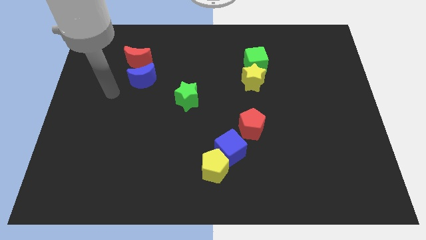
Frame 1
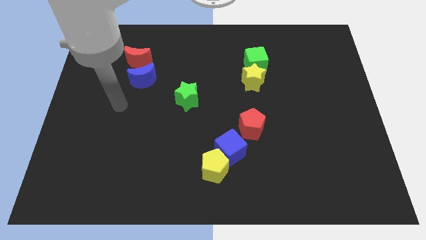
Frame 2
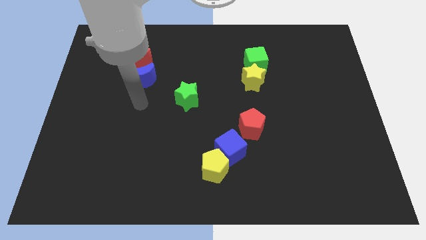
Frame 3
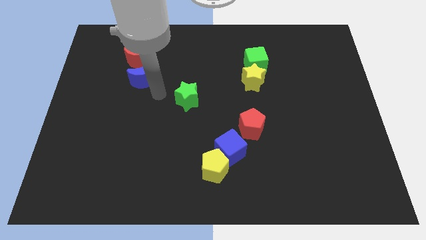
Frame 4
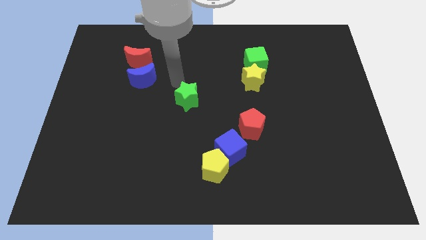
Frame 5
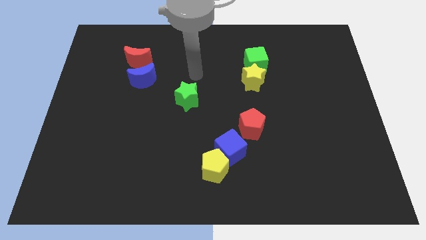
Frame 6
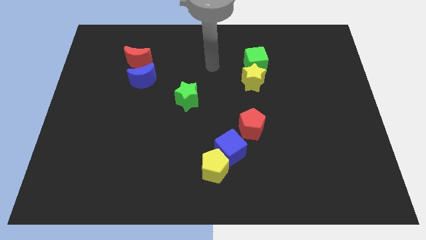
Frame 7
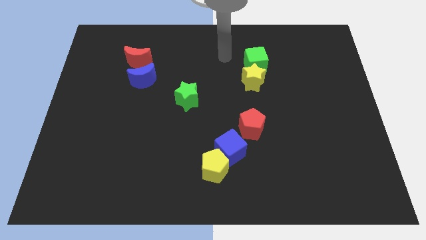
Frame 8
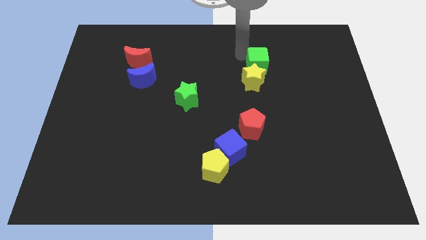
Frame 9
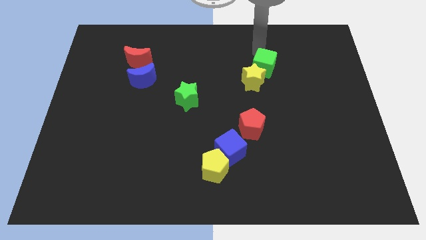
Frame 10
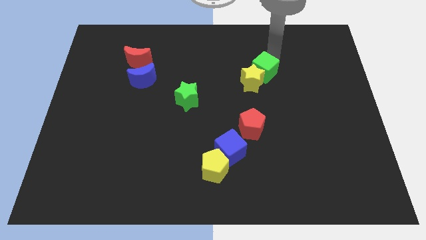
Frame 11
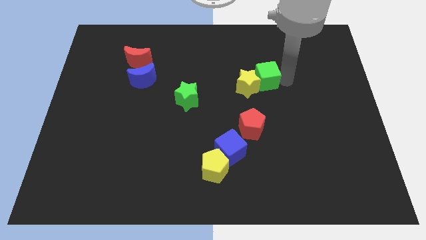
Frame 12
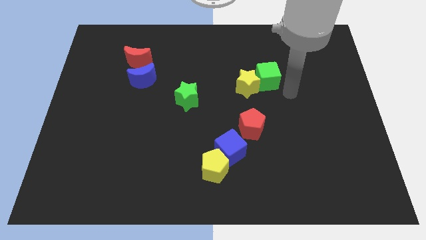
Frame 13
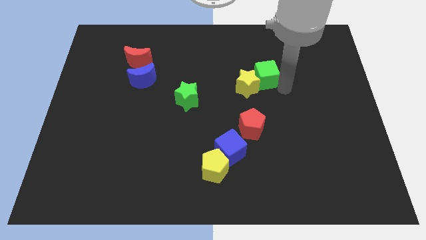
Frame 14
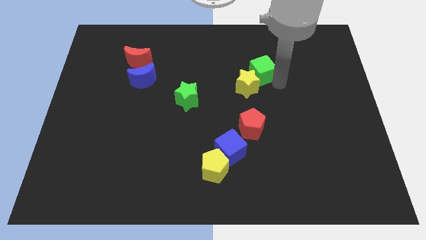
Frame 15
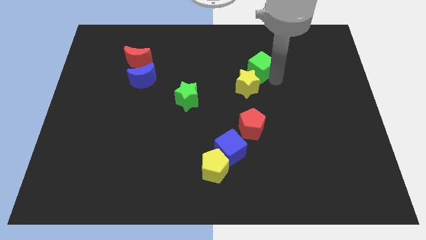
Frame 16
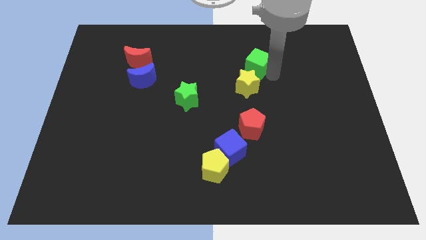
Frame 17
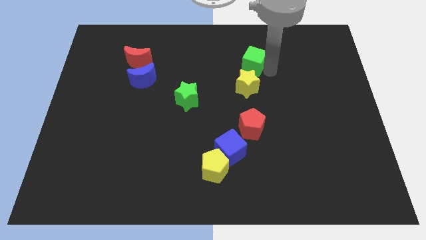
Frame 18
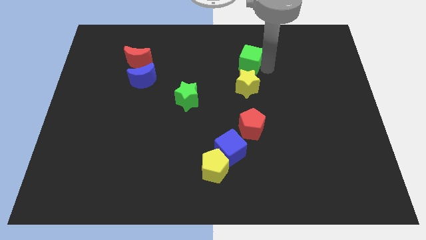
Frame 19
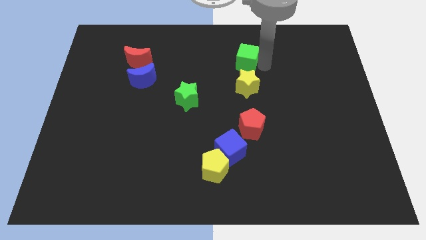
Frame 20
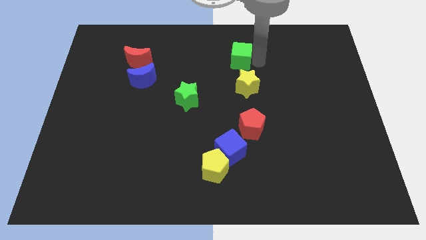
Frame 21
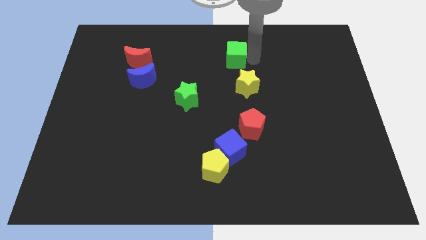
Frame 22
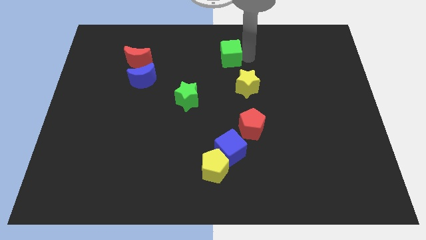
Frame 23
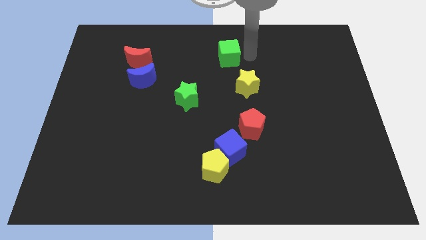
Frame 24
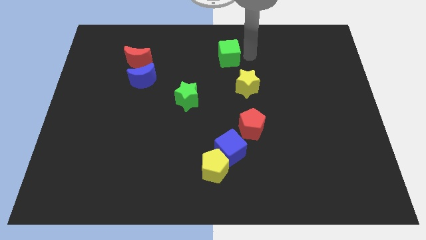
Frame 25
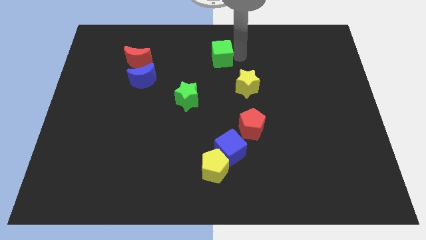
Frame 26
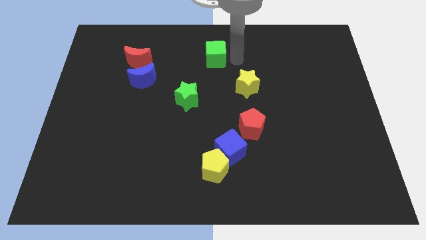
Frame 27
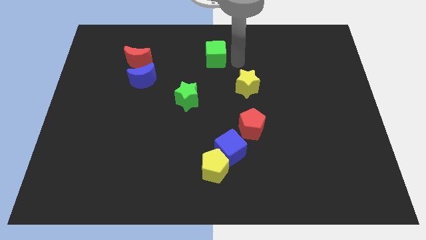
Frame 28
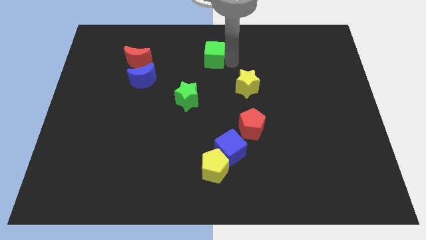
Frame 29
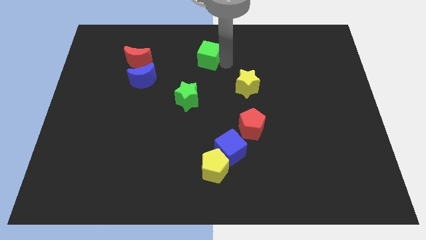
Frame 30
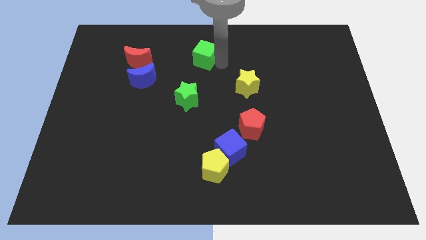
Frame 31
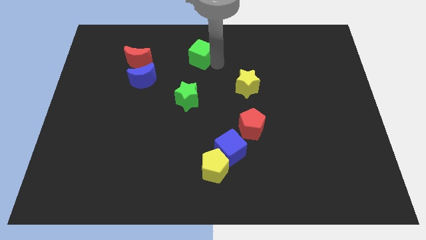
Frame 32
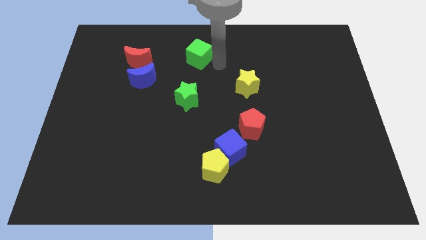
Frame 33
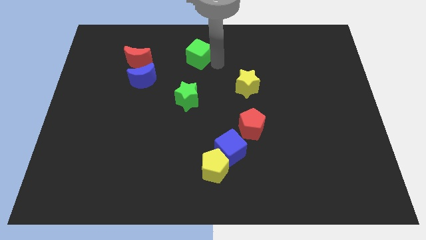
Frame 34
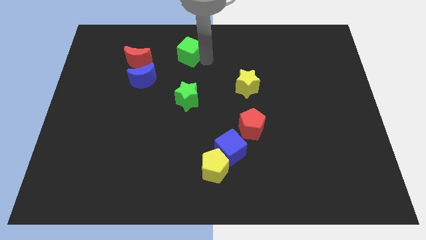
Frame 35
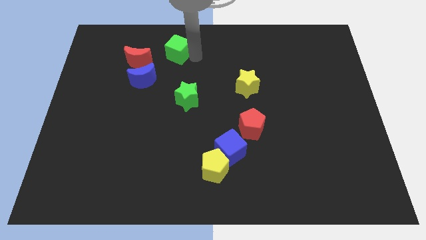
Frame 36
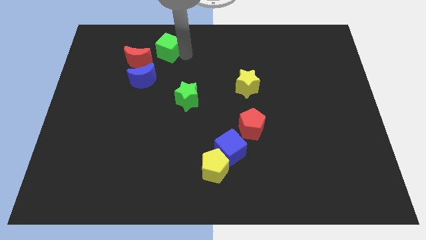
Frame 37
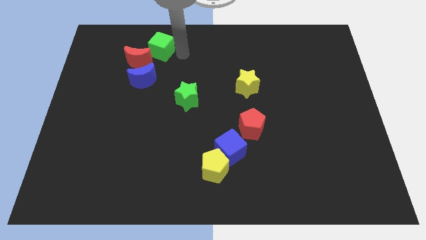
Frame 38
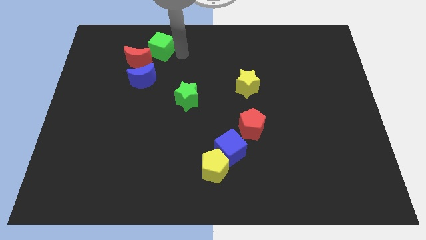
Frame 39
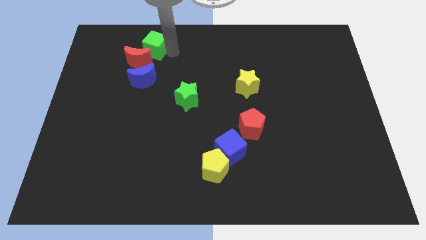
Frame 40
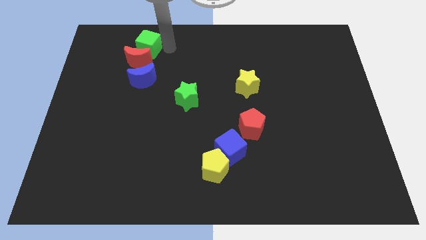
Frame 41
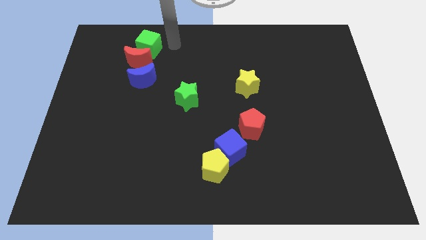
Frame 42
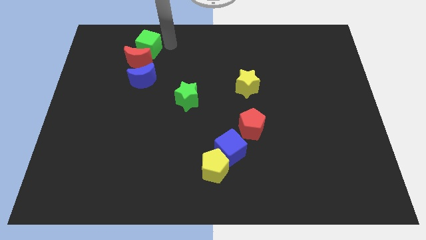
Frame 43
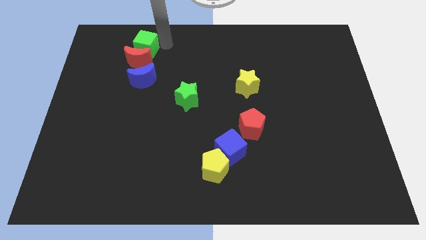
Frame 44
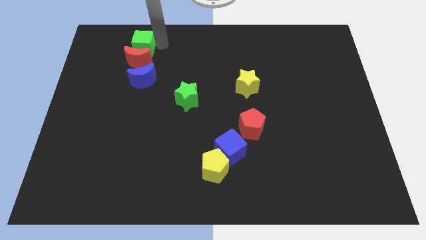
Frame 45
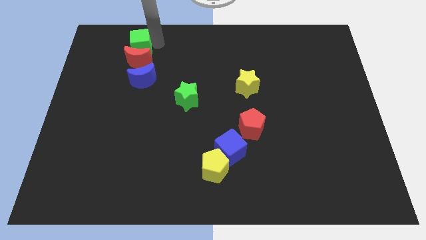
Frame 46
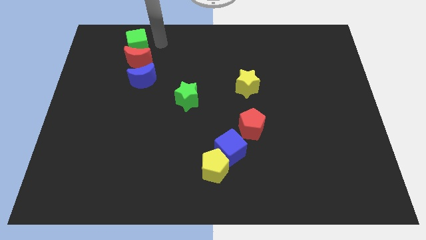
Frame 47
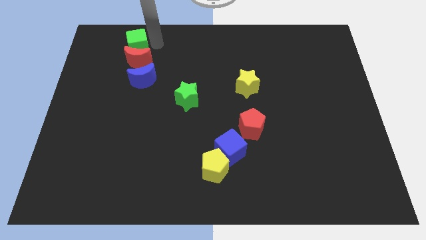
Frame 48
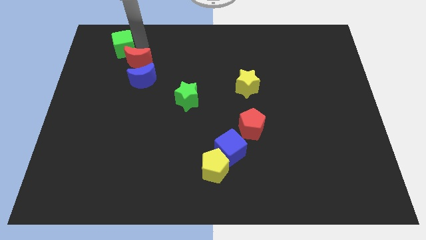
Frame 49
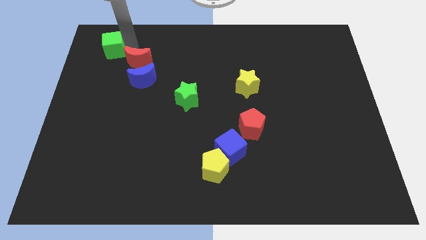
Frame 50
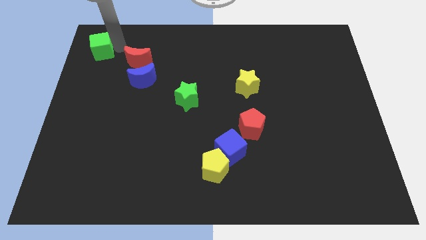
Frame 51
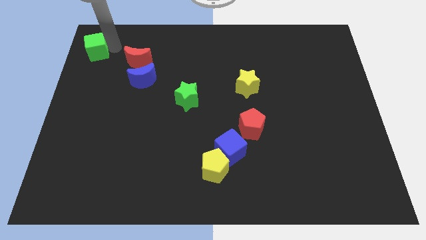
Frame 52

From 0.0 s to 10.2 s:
move the green cube to the top left corner

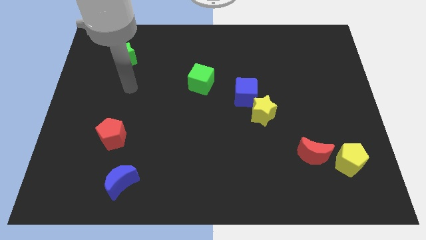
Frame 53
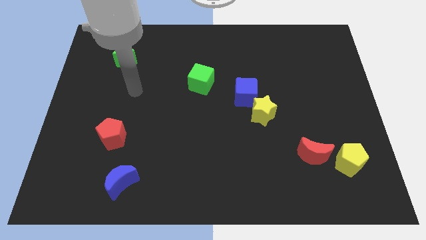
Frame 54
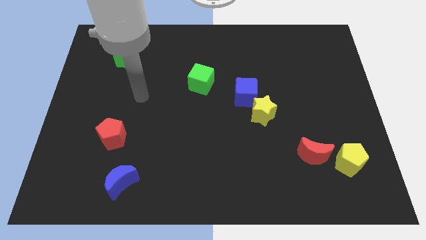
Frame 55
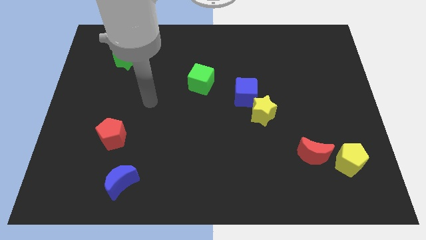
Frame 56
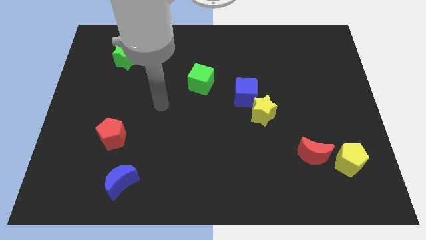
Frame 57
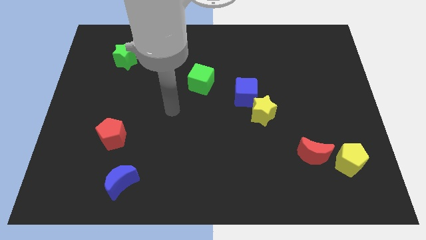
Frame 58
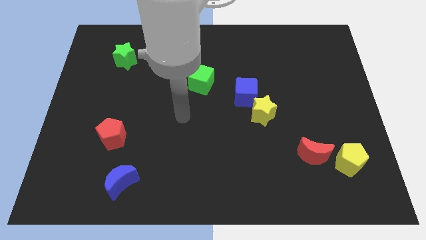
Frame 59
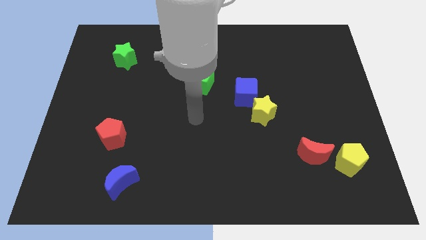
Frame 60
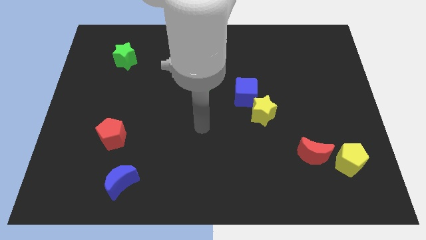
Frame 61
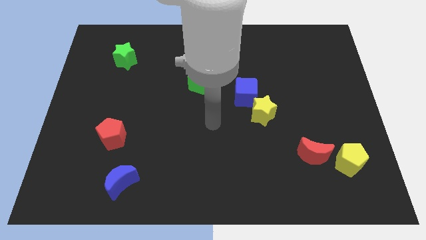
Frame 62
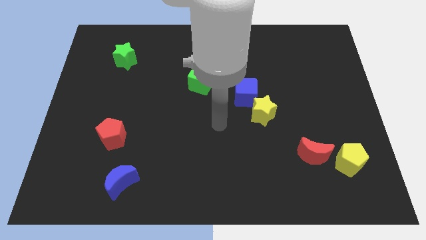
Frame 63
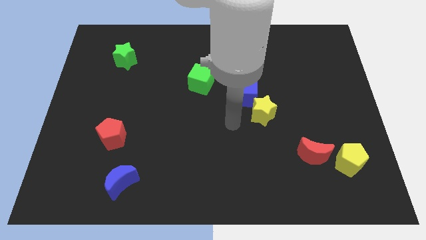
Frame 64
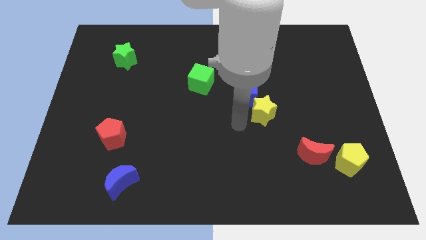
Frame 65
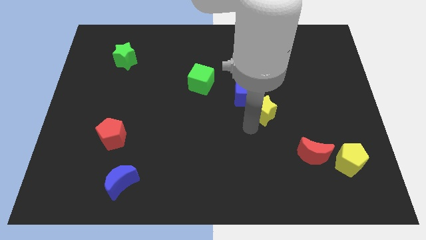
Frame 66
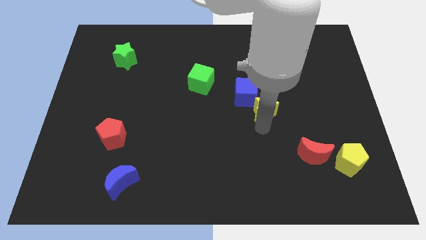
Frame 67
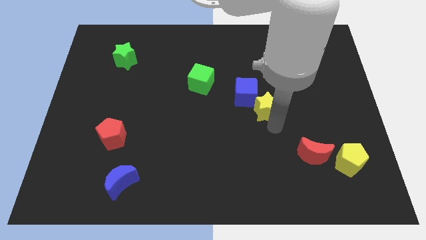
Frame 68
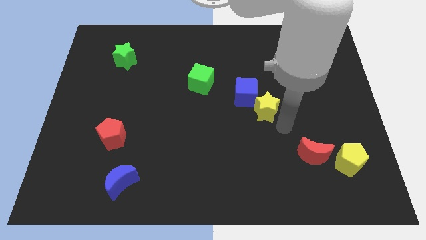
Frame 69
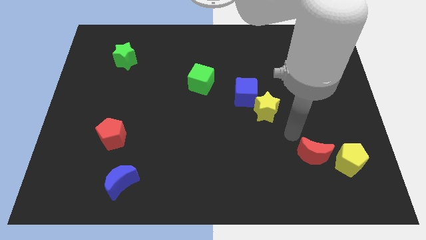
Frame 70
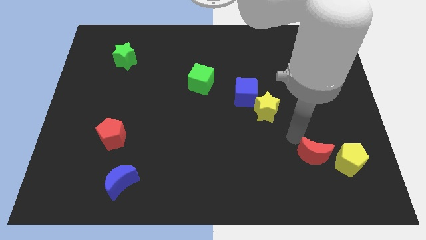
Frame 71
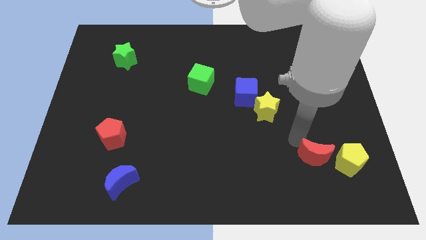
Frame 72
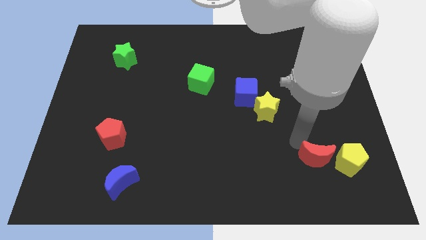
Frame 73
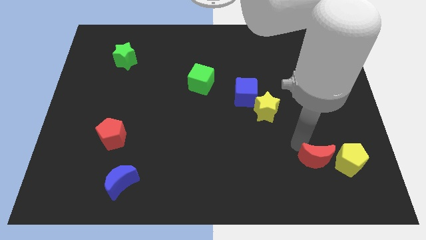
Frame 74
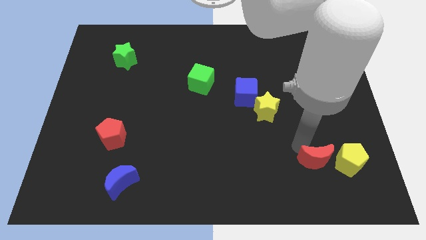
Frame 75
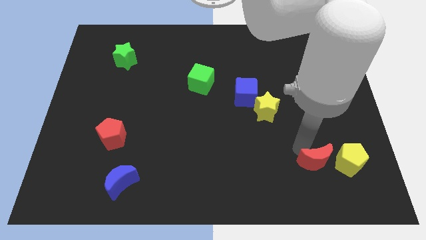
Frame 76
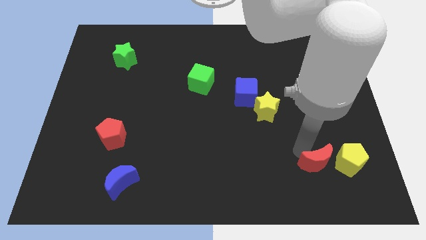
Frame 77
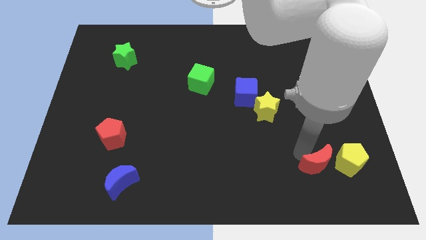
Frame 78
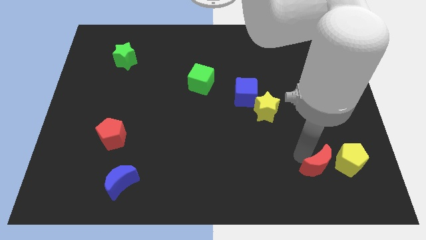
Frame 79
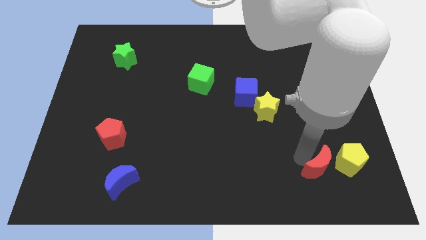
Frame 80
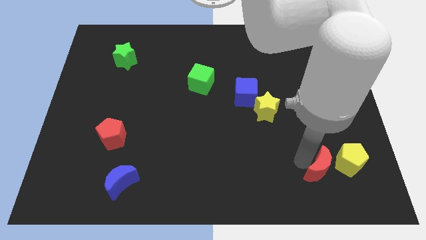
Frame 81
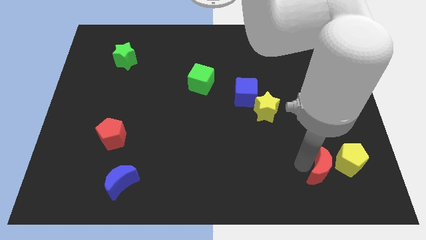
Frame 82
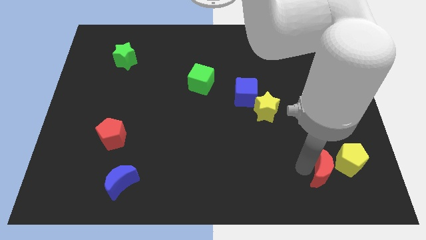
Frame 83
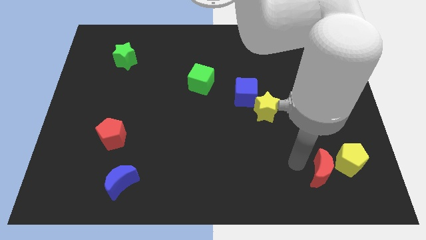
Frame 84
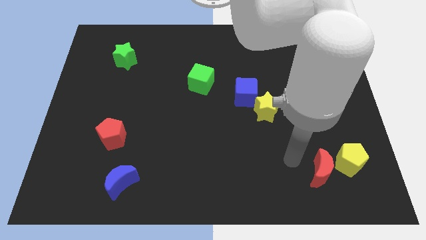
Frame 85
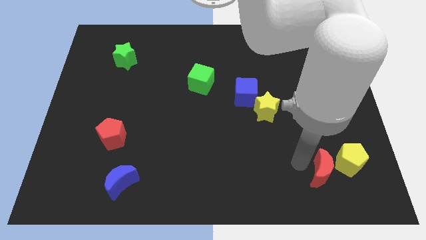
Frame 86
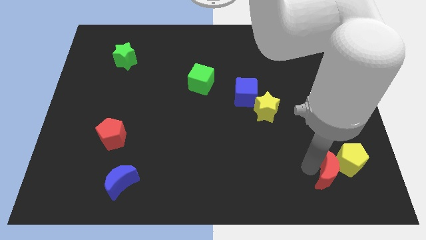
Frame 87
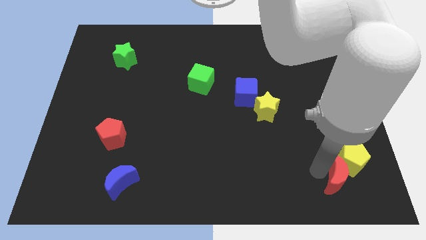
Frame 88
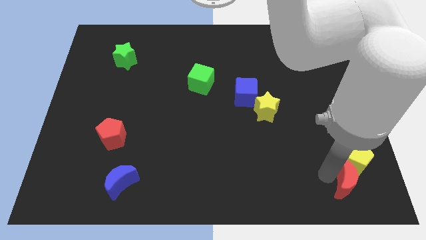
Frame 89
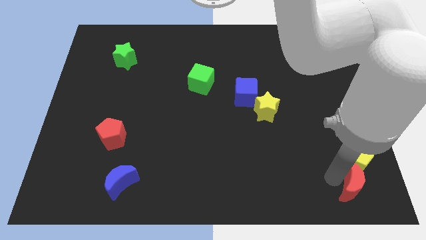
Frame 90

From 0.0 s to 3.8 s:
put the red moon to the bottom right corner
